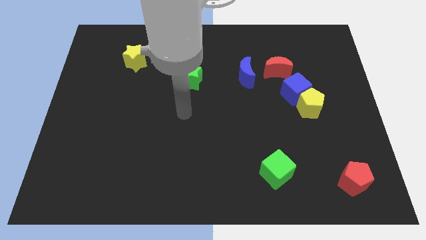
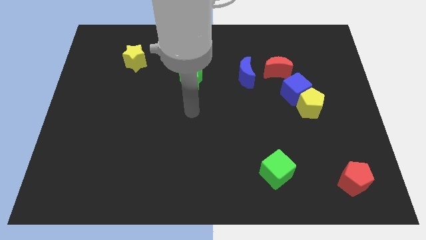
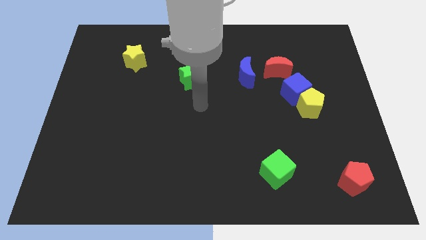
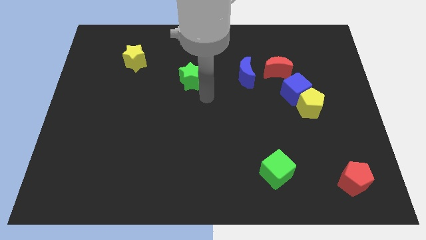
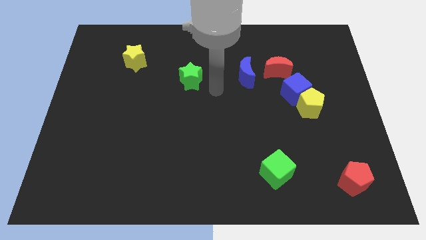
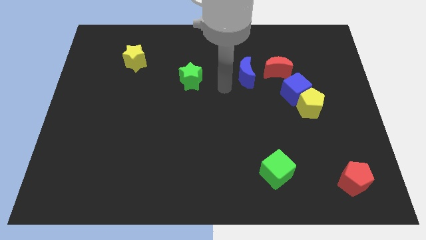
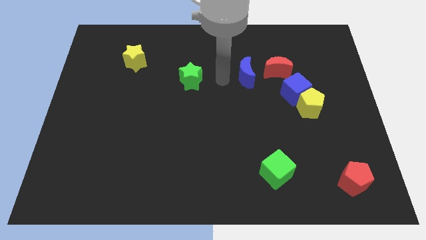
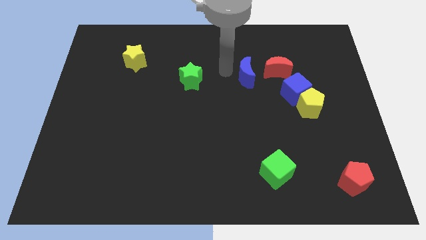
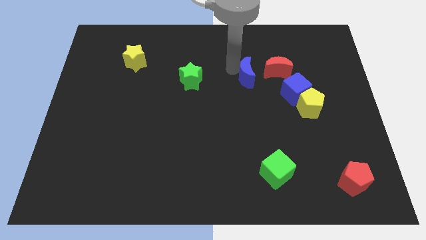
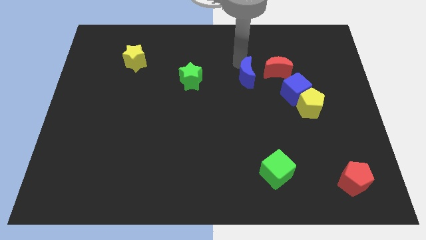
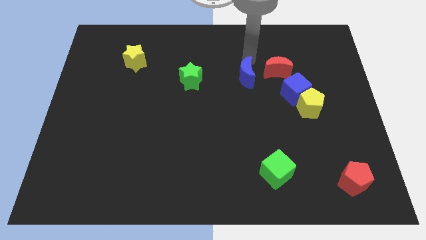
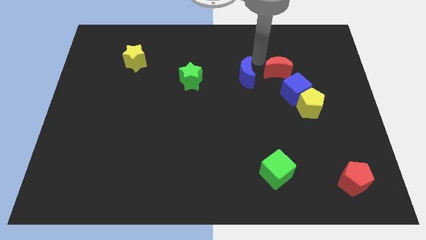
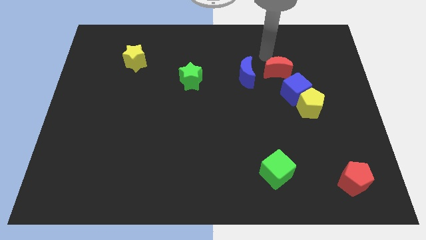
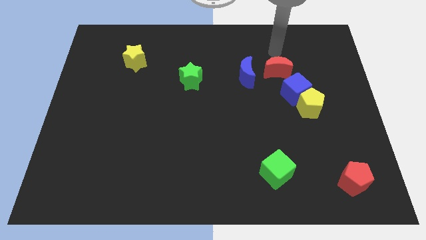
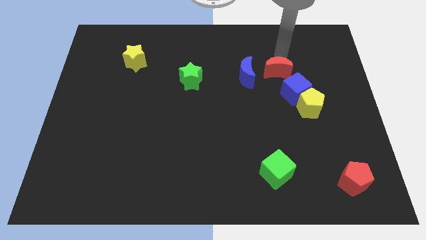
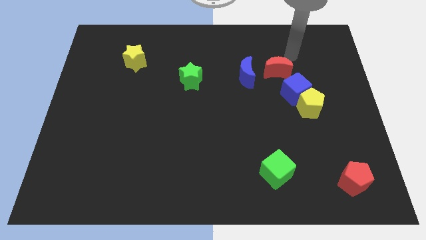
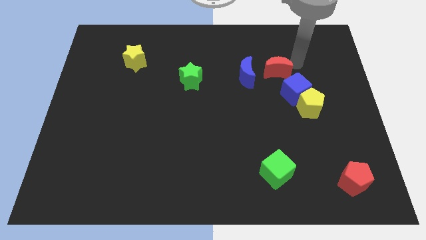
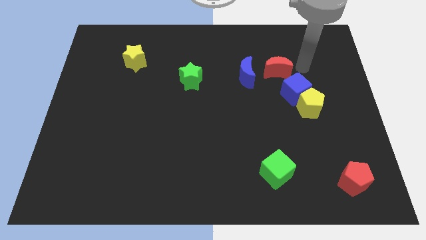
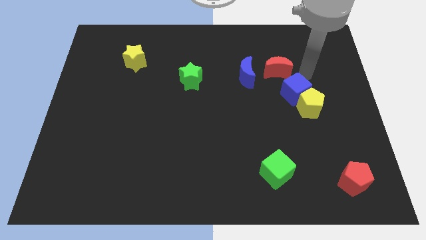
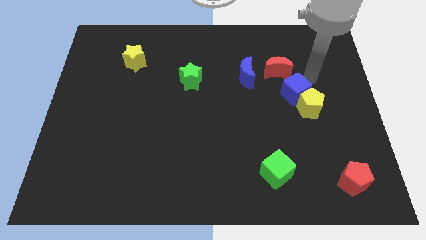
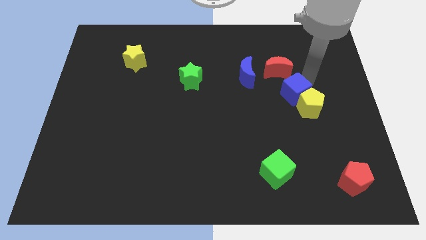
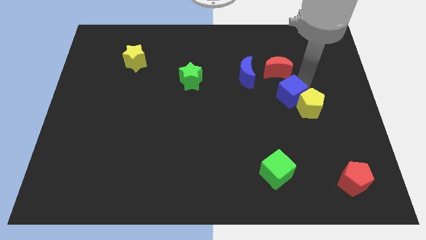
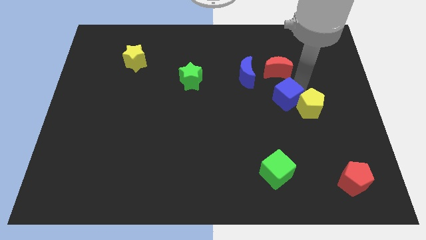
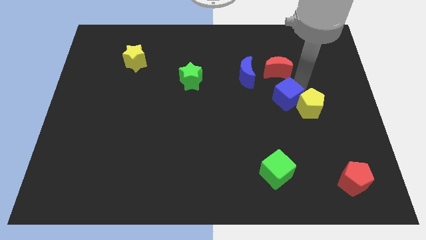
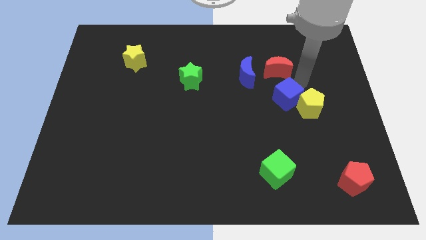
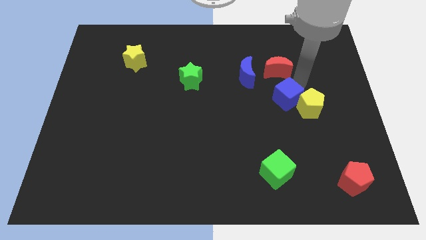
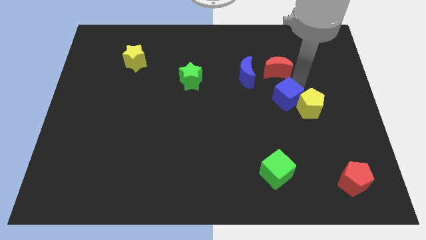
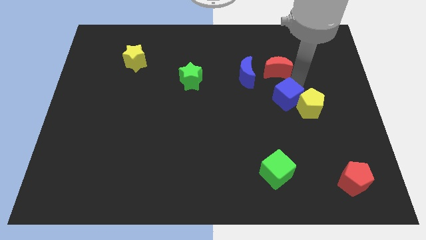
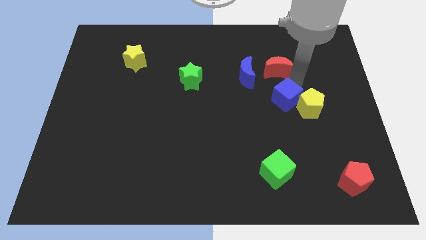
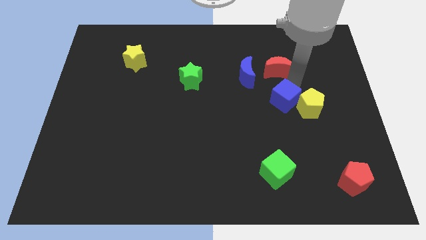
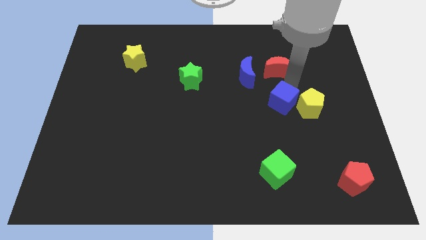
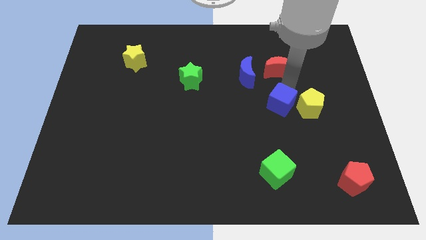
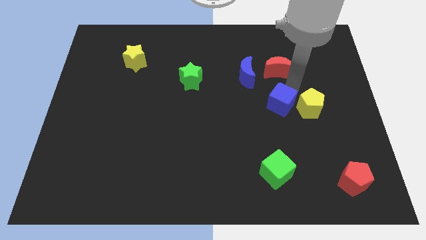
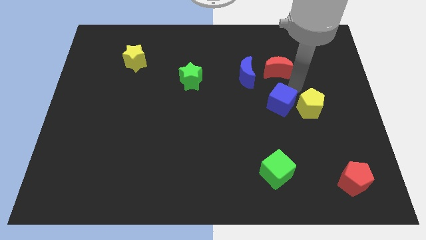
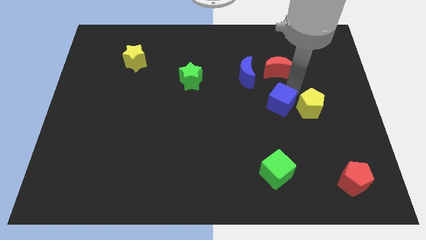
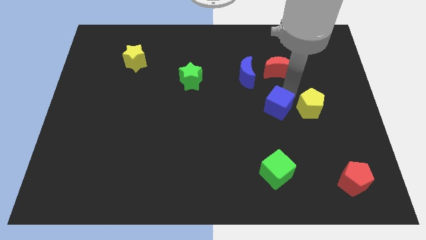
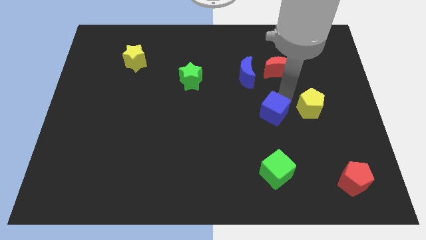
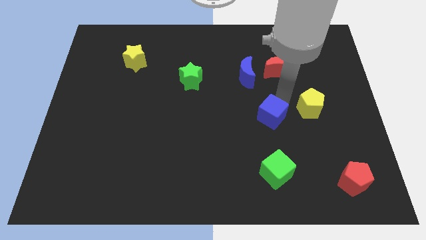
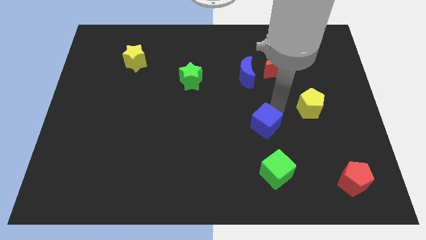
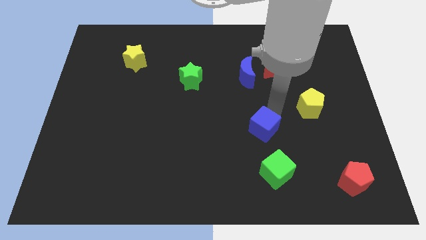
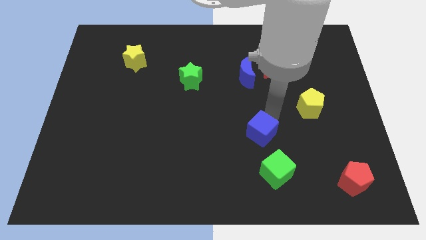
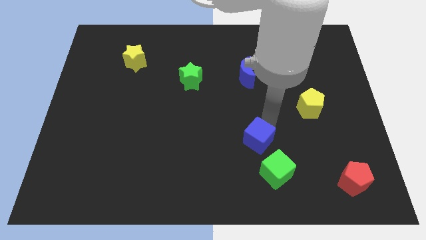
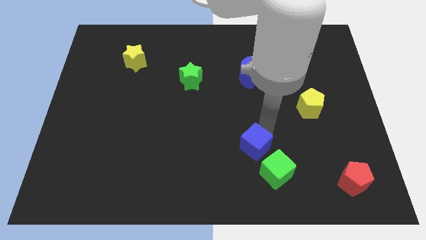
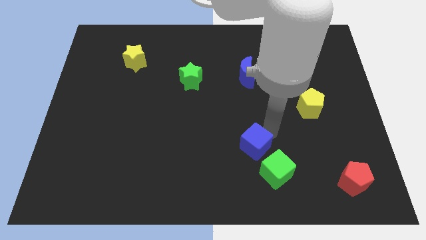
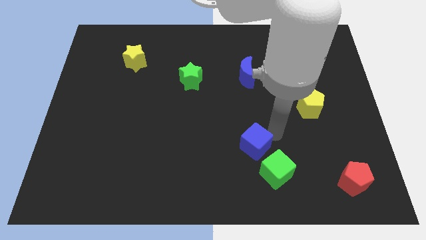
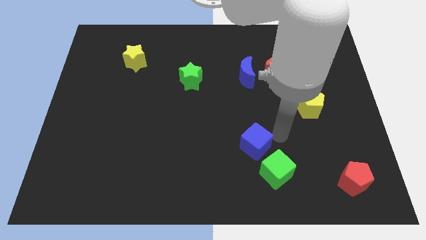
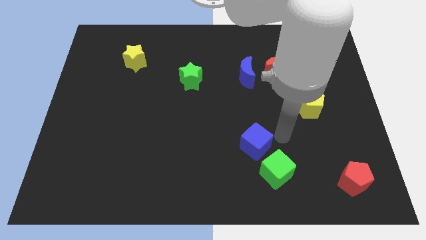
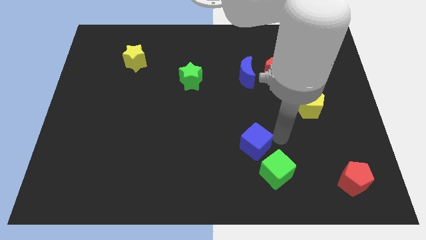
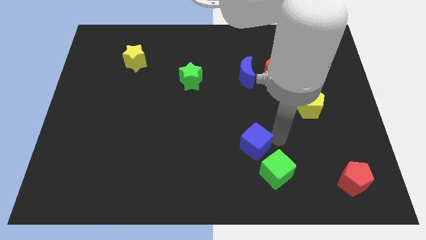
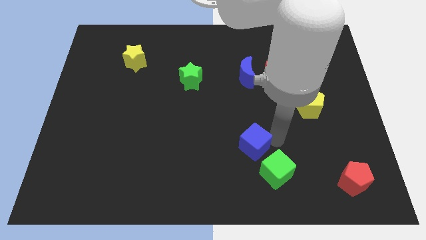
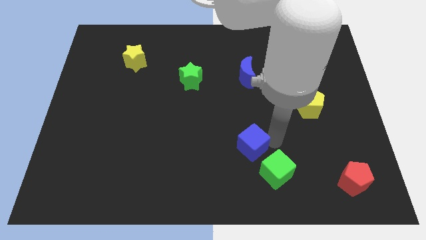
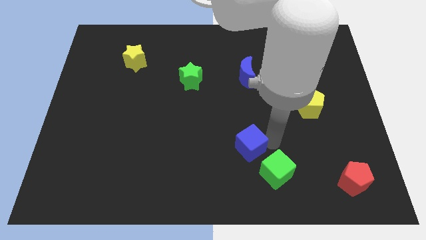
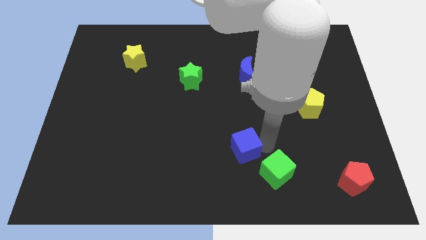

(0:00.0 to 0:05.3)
move the blue cube downwards and then to the left

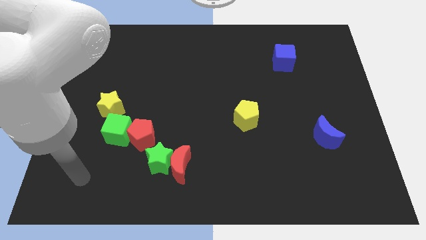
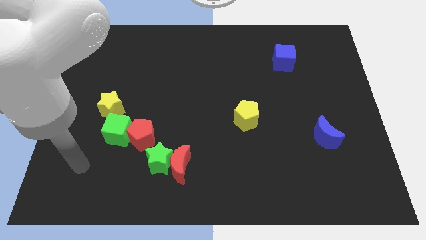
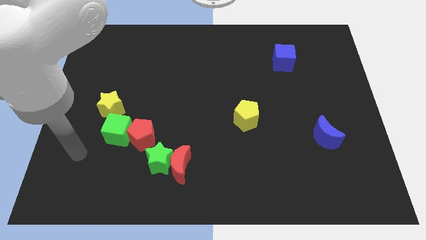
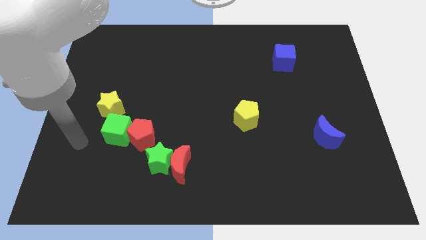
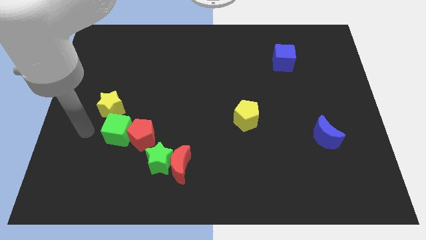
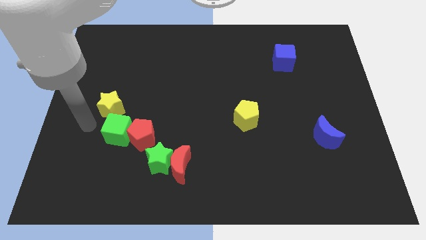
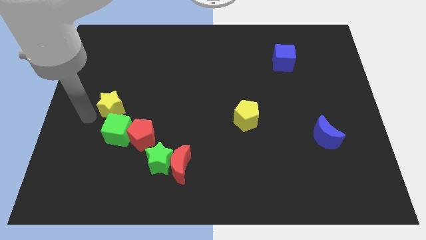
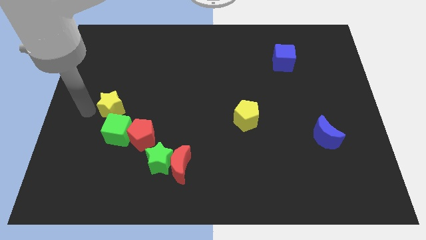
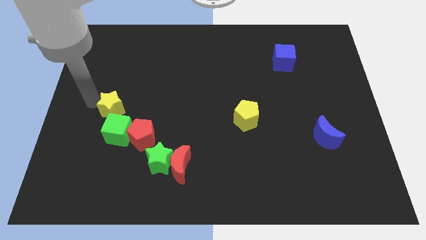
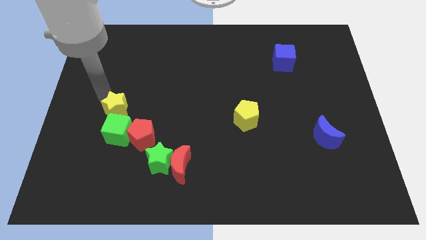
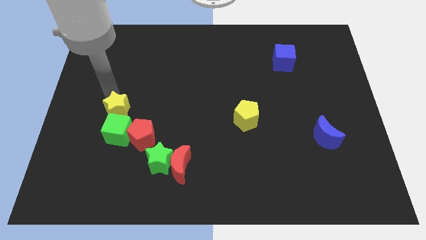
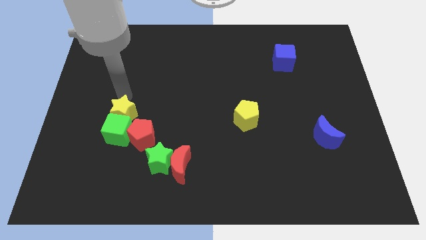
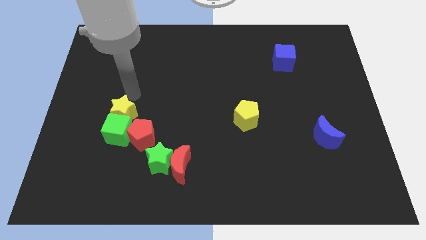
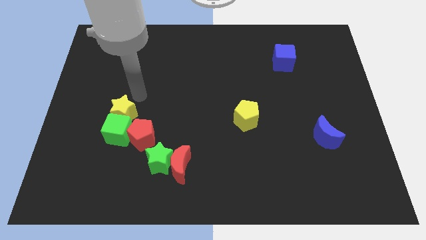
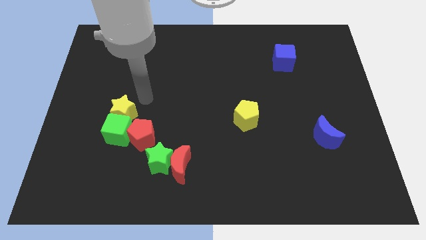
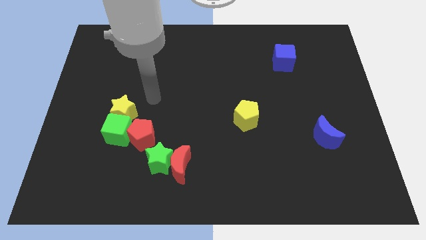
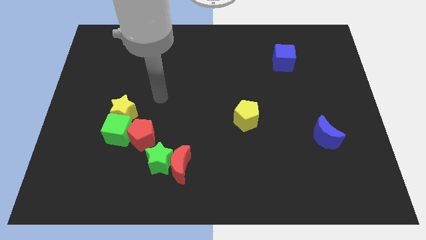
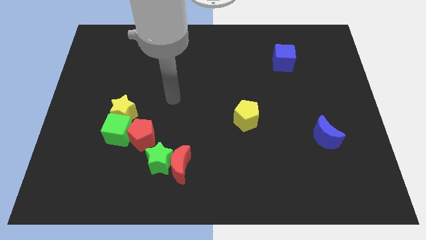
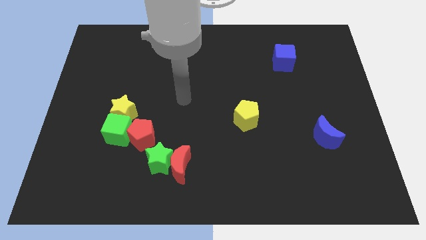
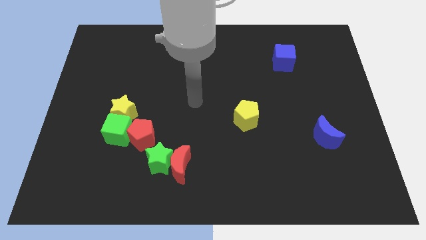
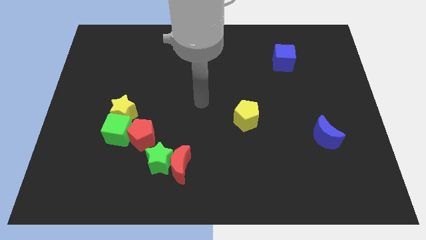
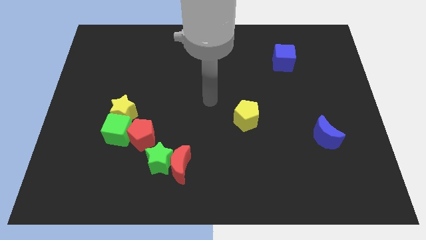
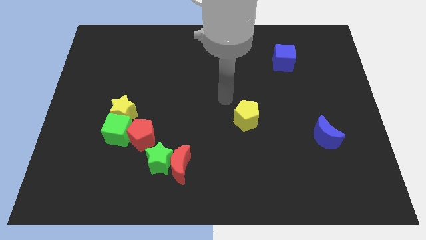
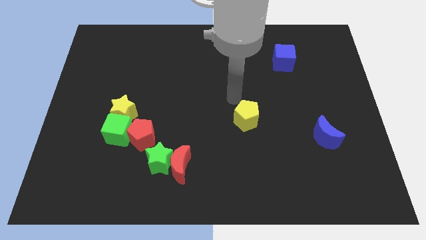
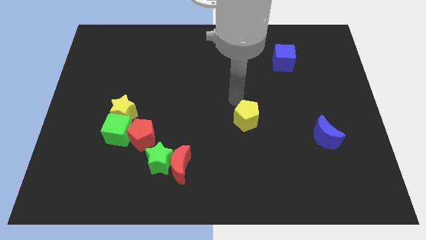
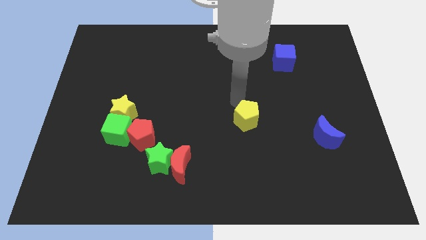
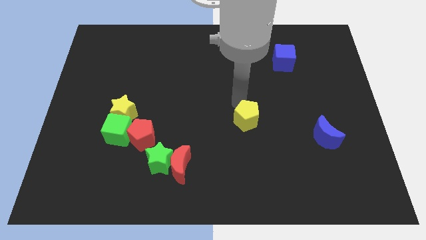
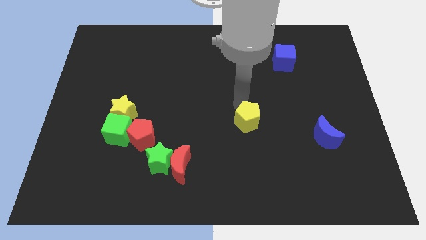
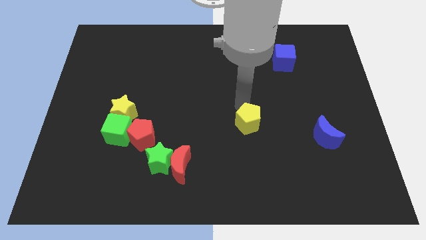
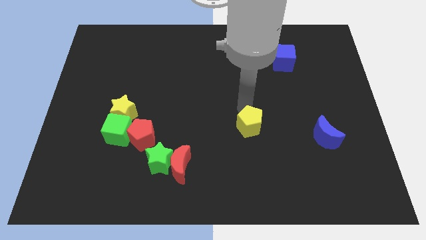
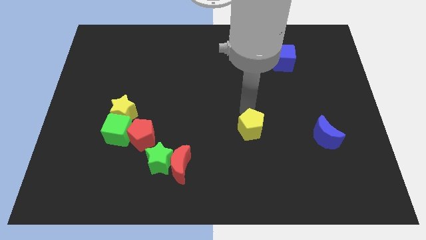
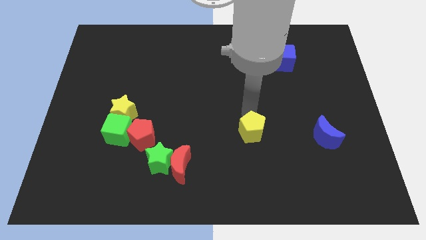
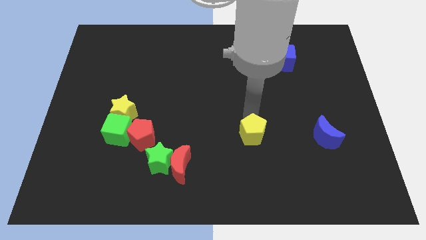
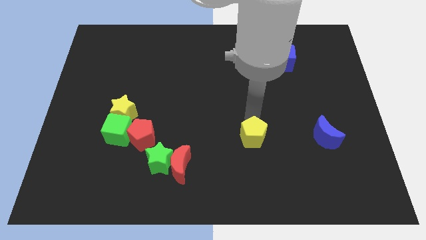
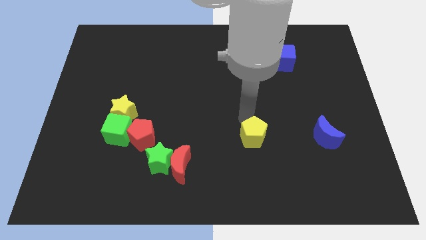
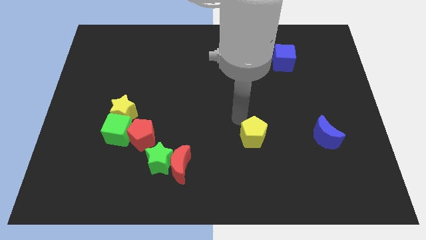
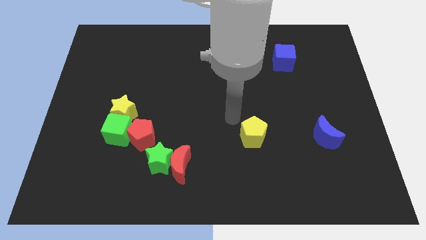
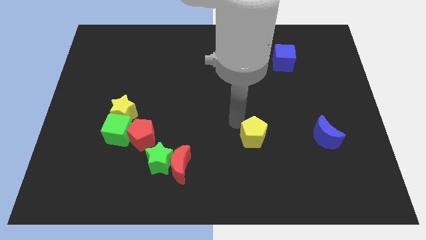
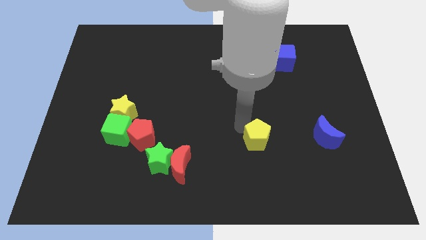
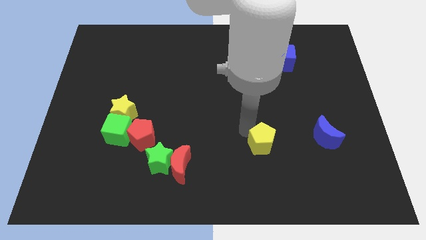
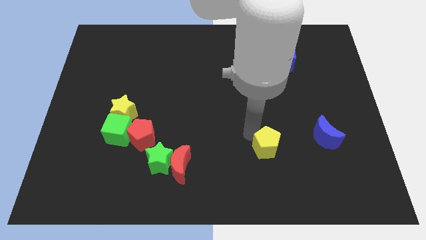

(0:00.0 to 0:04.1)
move the yellow pentagon a little downwards and right diagonally
